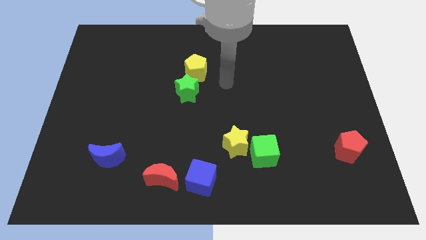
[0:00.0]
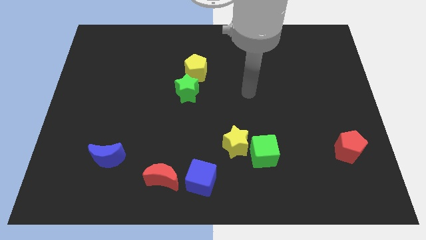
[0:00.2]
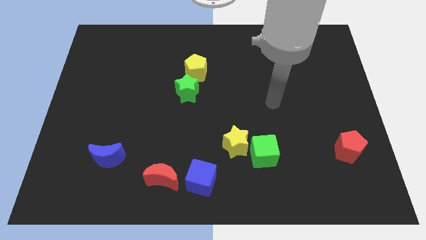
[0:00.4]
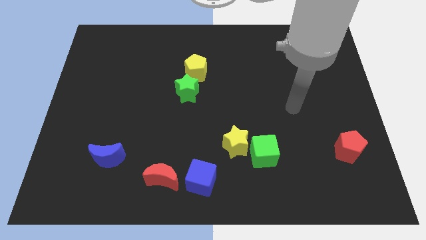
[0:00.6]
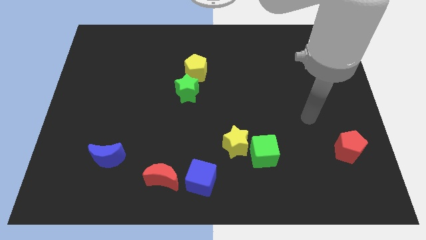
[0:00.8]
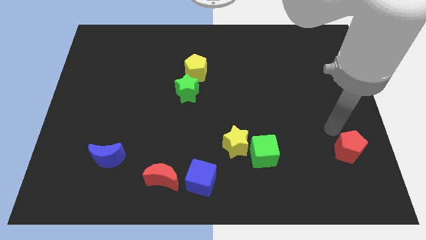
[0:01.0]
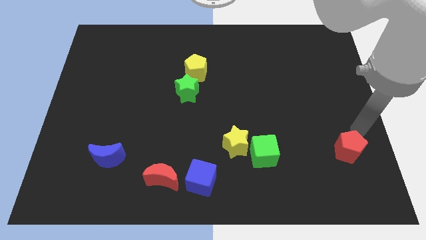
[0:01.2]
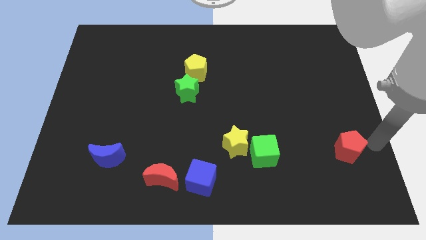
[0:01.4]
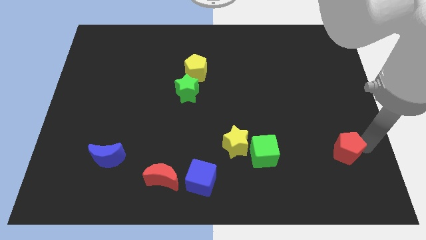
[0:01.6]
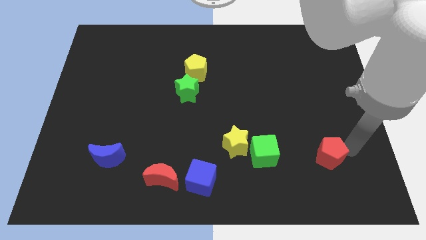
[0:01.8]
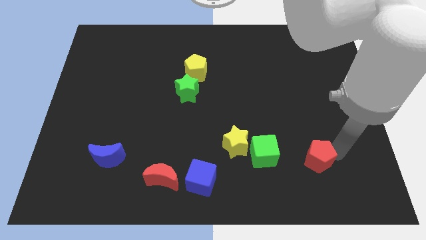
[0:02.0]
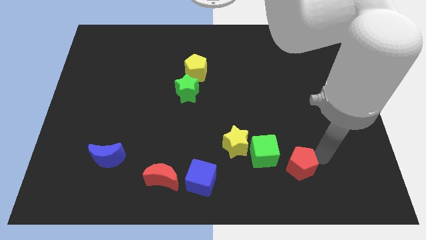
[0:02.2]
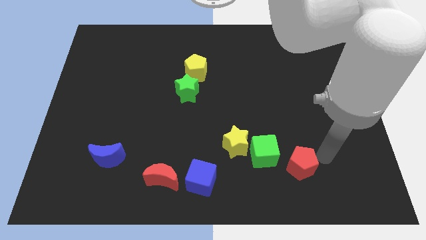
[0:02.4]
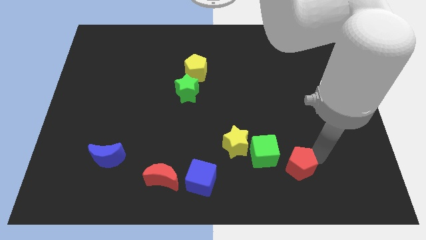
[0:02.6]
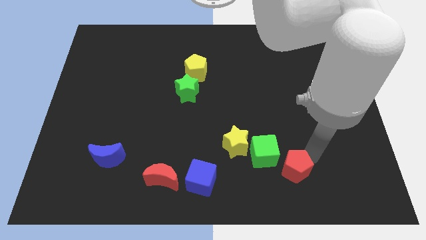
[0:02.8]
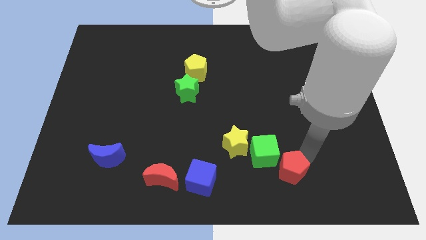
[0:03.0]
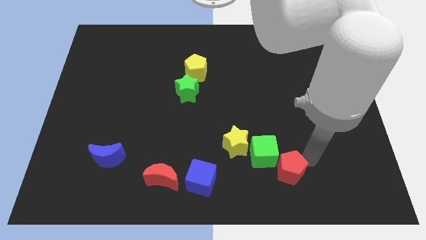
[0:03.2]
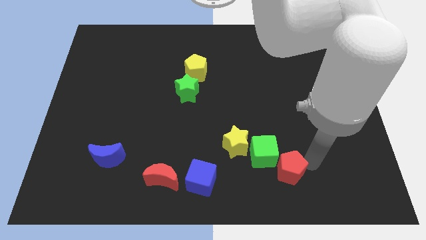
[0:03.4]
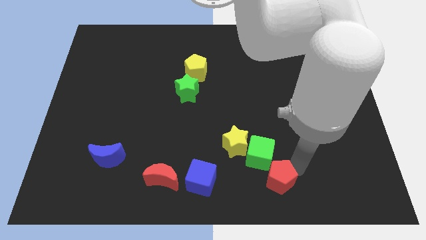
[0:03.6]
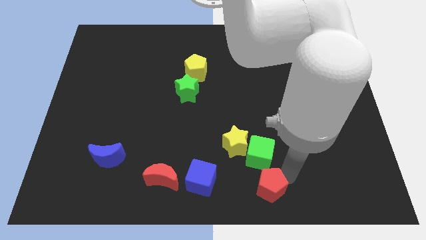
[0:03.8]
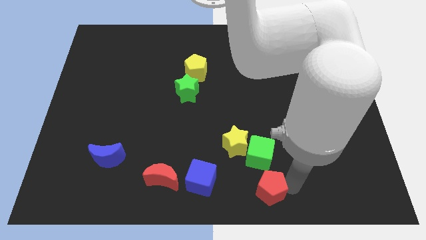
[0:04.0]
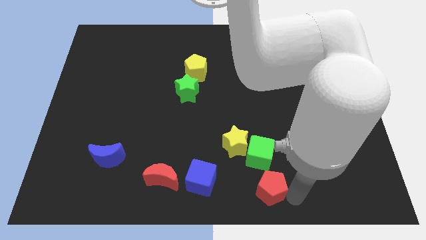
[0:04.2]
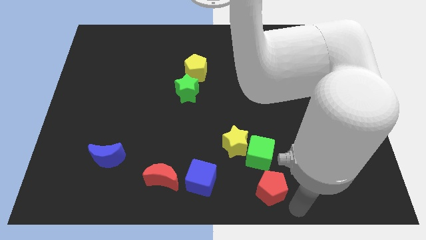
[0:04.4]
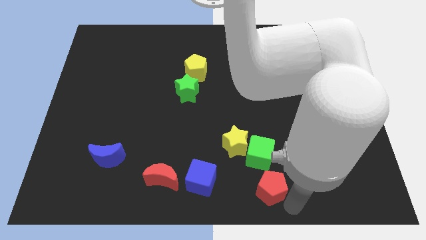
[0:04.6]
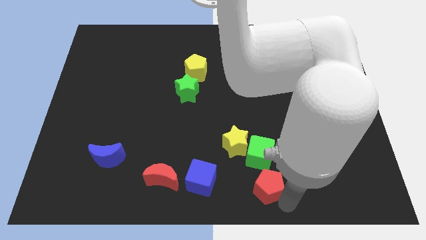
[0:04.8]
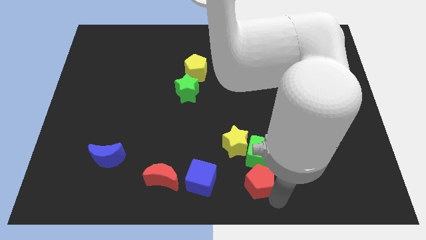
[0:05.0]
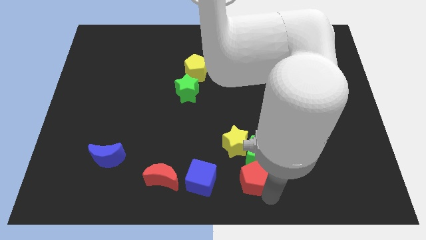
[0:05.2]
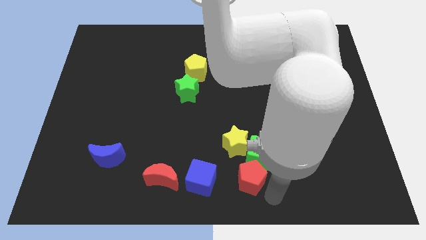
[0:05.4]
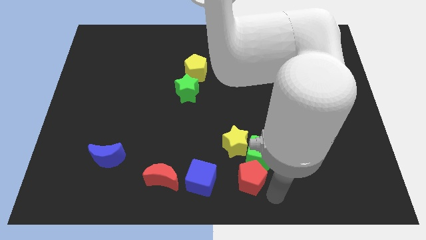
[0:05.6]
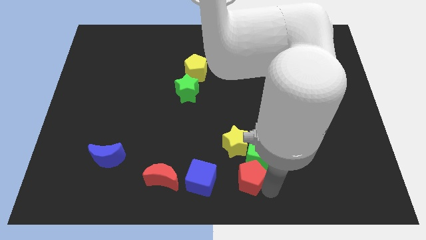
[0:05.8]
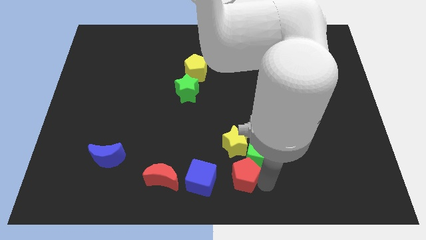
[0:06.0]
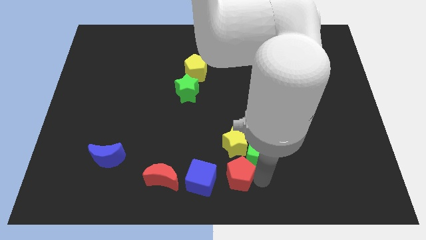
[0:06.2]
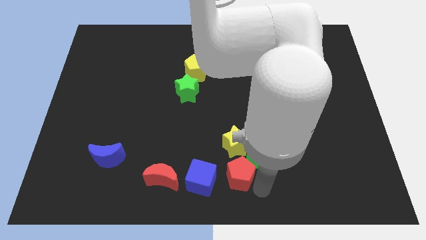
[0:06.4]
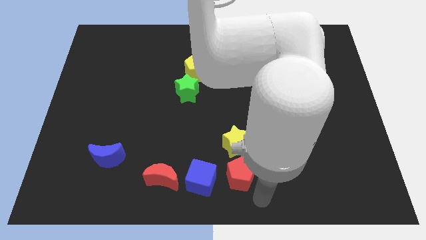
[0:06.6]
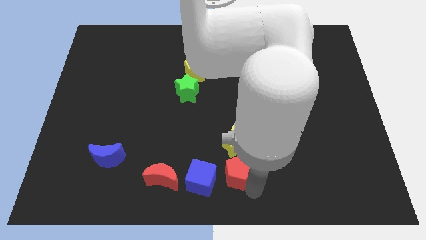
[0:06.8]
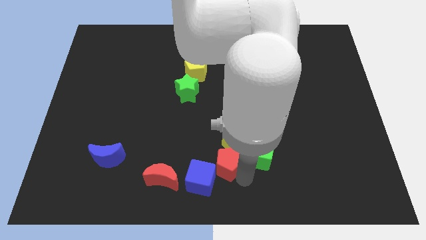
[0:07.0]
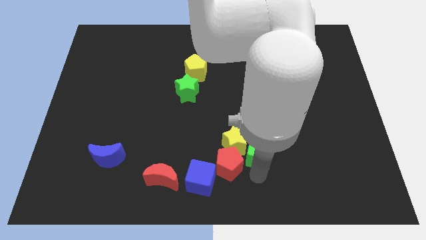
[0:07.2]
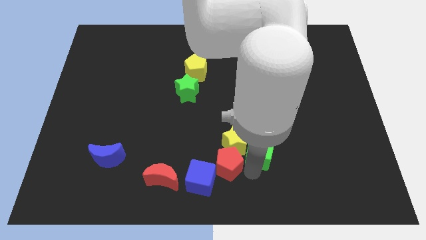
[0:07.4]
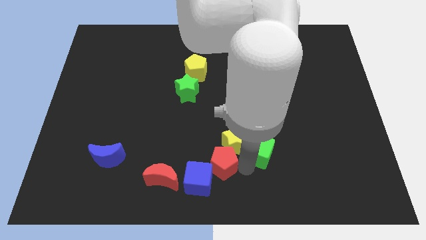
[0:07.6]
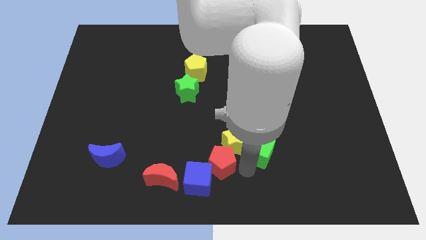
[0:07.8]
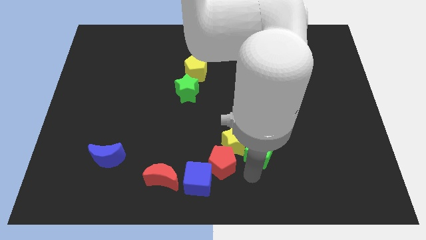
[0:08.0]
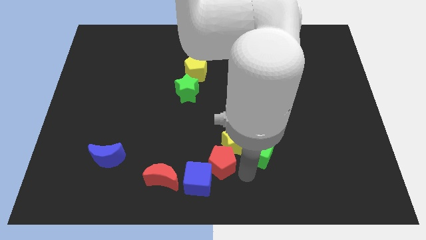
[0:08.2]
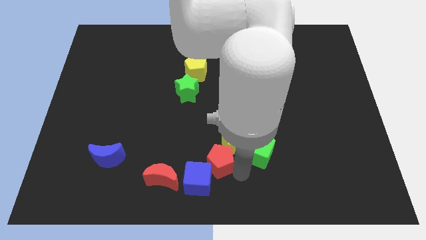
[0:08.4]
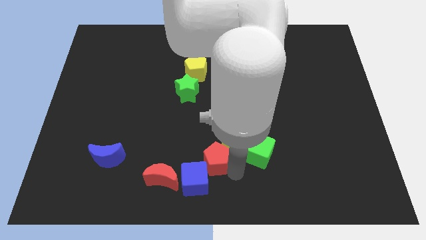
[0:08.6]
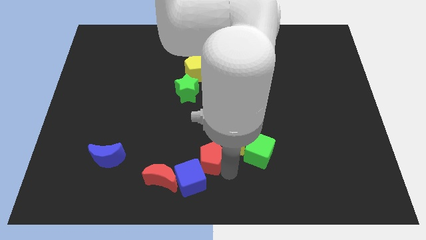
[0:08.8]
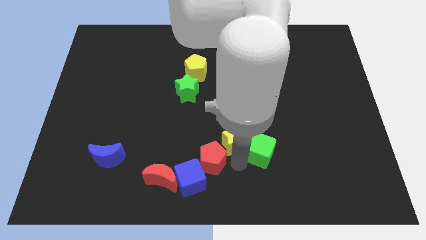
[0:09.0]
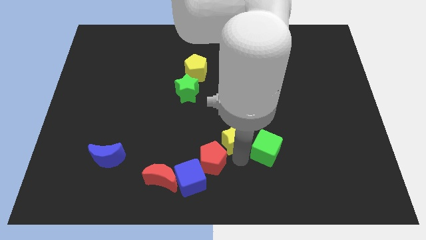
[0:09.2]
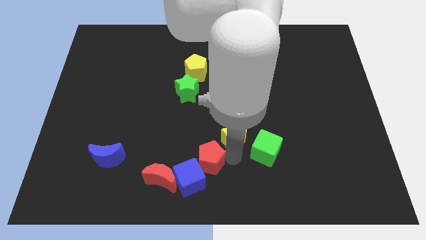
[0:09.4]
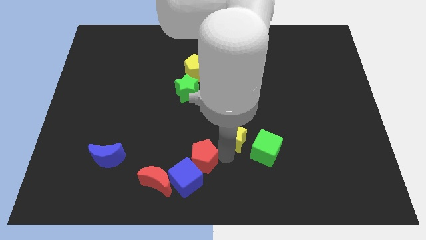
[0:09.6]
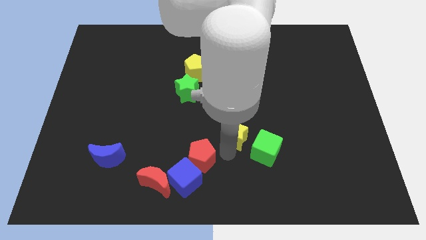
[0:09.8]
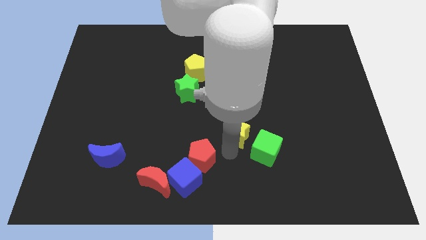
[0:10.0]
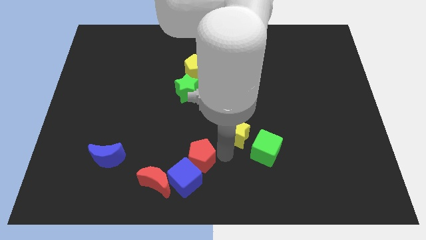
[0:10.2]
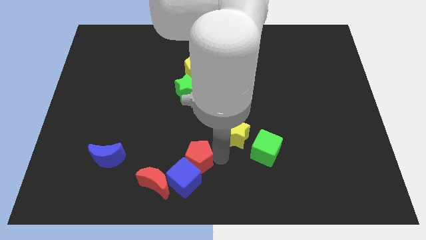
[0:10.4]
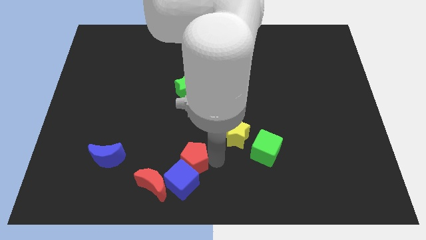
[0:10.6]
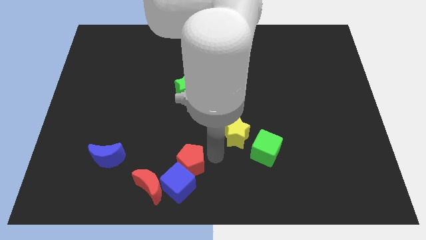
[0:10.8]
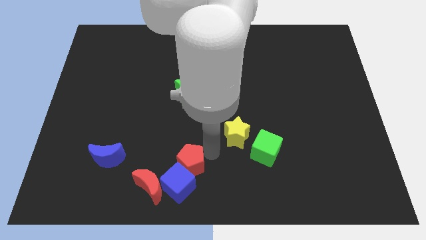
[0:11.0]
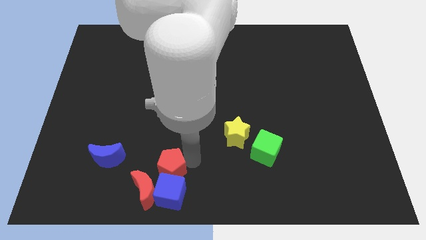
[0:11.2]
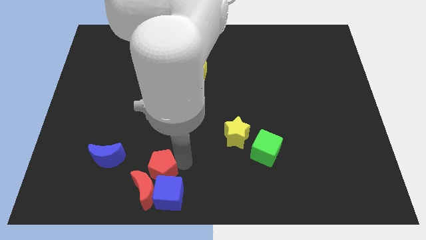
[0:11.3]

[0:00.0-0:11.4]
push the red pentagon next to the red moon

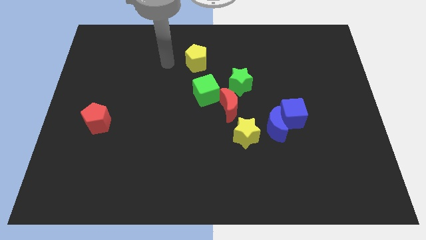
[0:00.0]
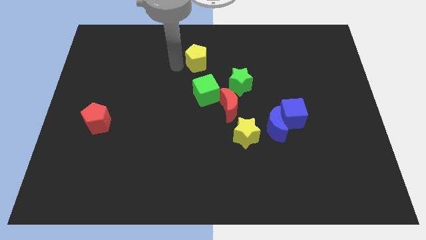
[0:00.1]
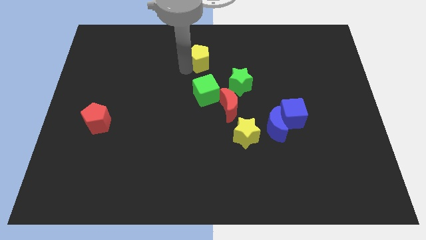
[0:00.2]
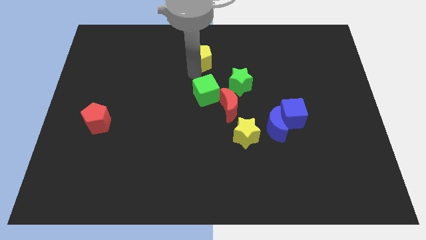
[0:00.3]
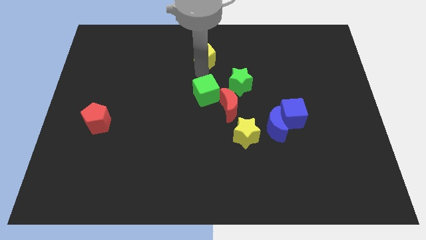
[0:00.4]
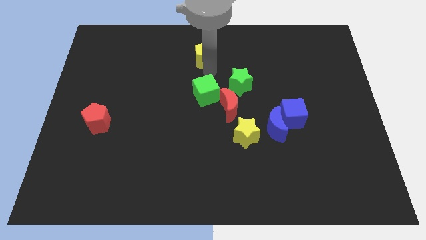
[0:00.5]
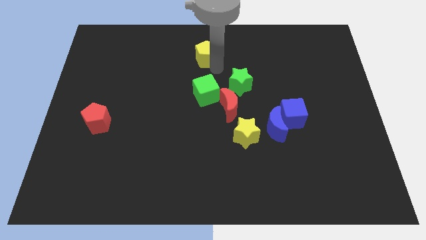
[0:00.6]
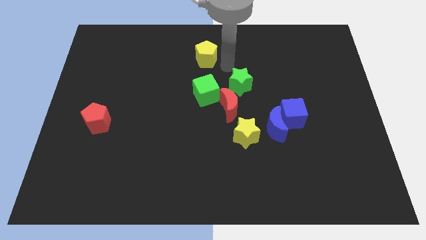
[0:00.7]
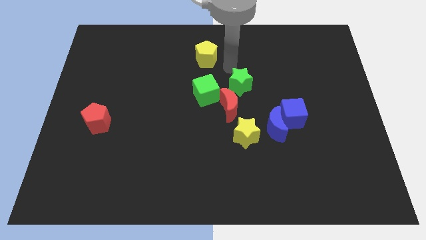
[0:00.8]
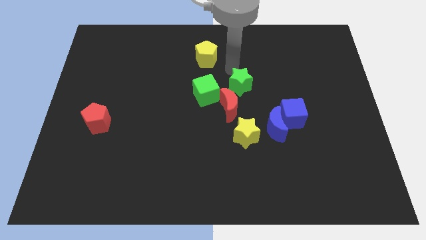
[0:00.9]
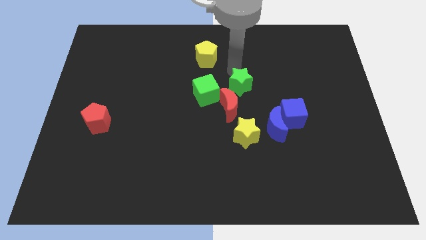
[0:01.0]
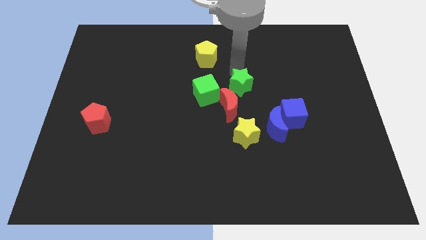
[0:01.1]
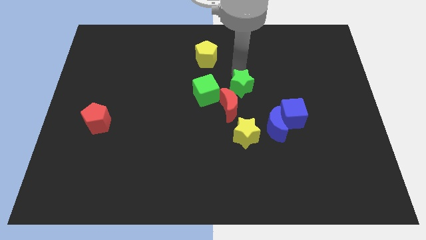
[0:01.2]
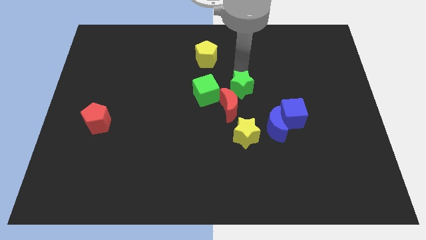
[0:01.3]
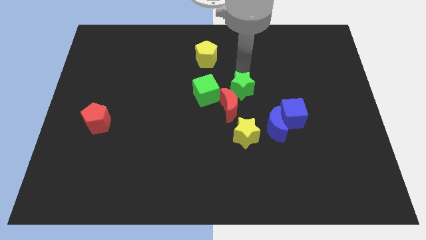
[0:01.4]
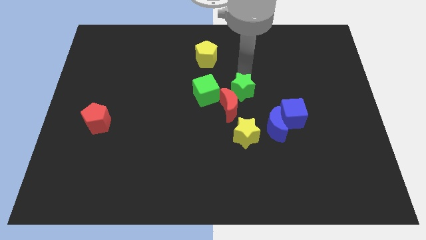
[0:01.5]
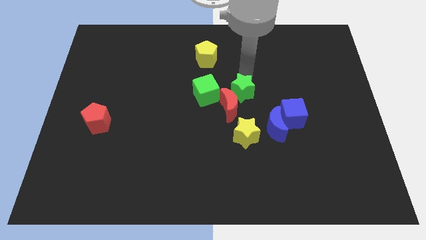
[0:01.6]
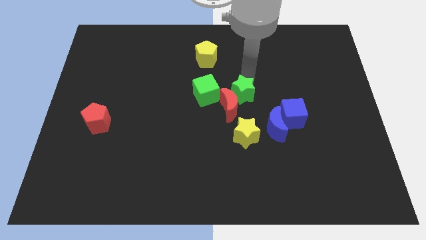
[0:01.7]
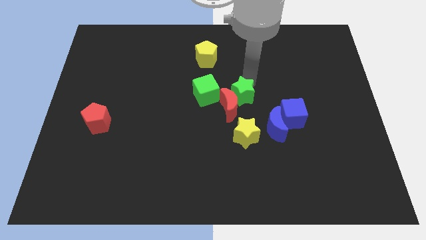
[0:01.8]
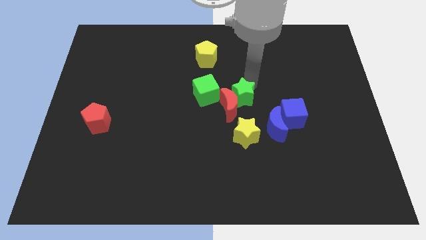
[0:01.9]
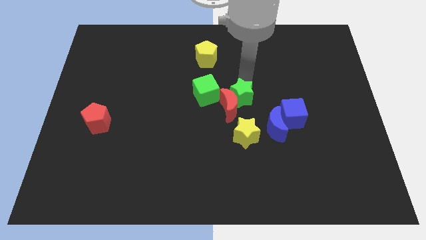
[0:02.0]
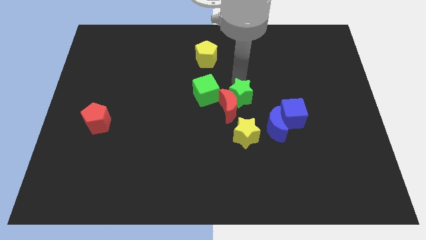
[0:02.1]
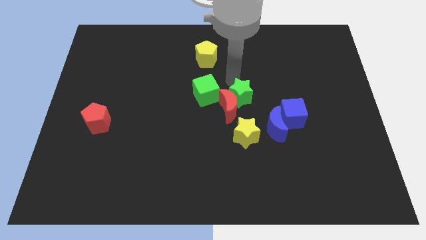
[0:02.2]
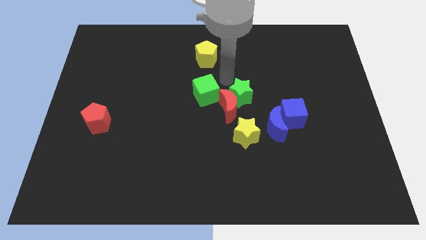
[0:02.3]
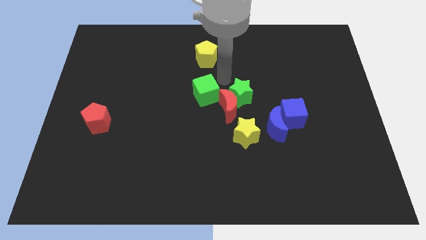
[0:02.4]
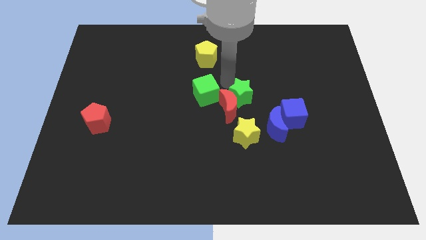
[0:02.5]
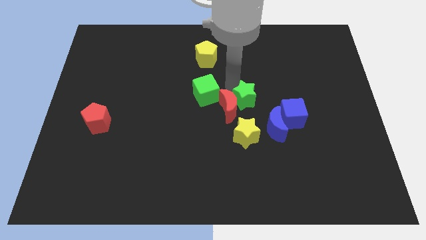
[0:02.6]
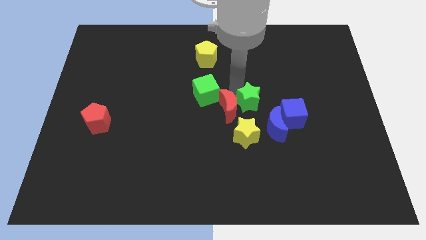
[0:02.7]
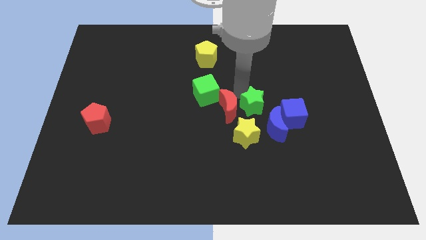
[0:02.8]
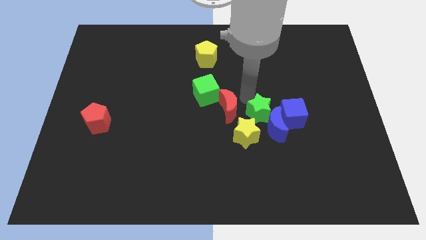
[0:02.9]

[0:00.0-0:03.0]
slide the green star next to the blue moon
